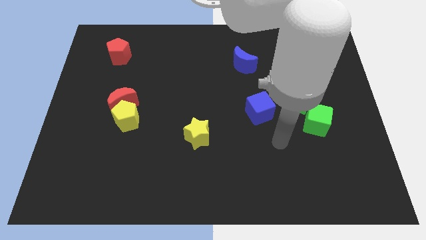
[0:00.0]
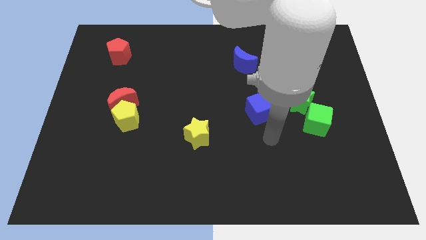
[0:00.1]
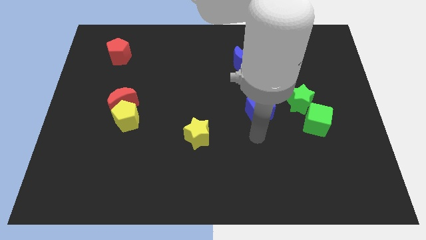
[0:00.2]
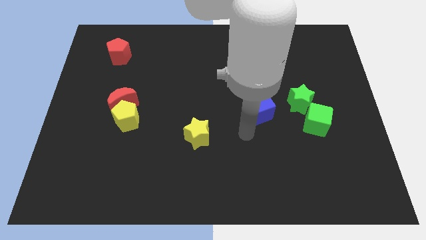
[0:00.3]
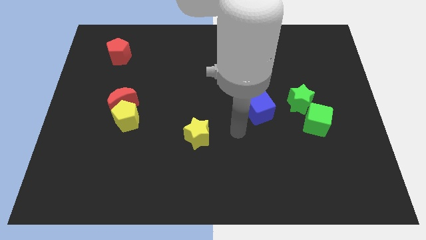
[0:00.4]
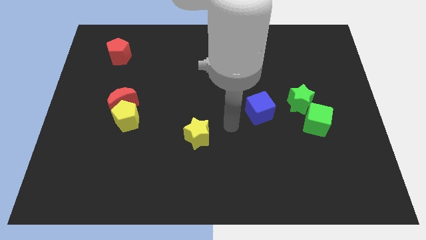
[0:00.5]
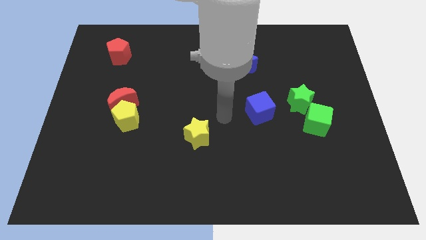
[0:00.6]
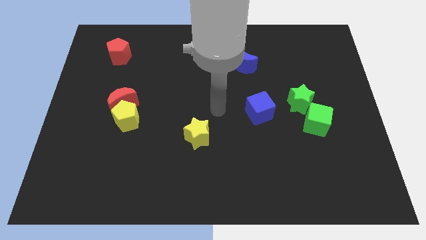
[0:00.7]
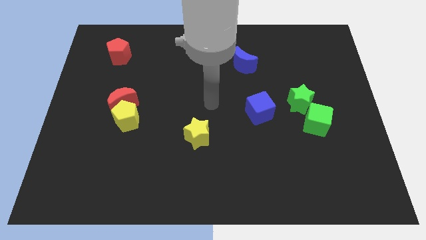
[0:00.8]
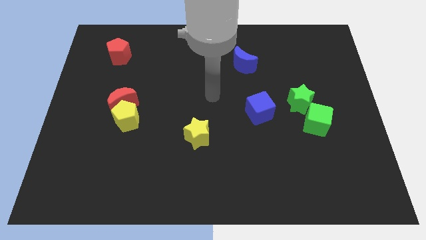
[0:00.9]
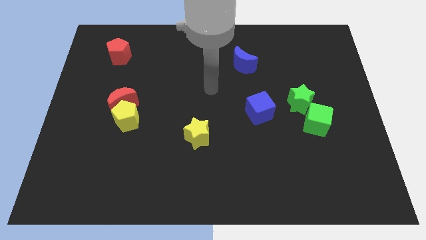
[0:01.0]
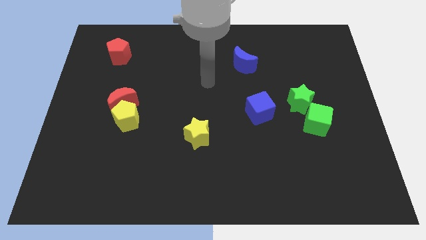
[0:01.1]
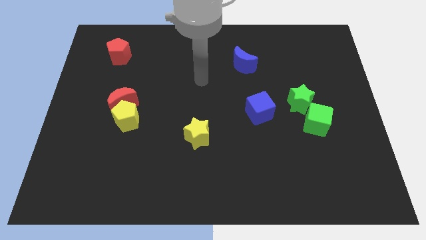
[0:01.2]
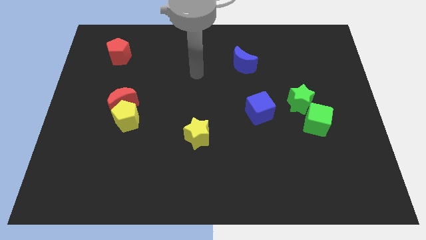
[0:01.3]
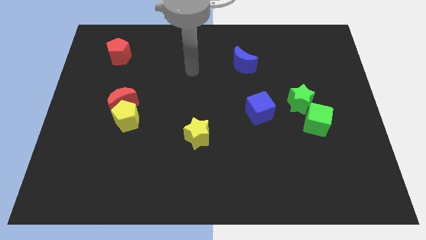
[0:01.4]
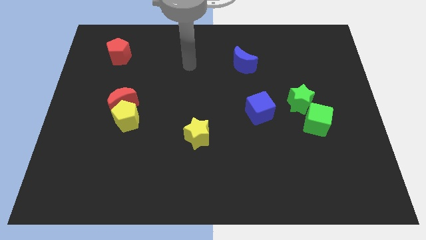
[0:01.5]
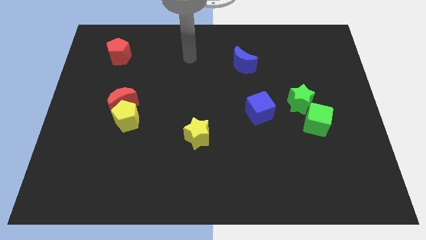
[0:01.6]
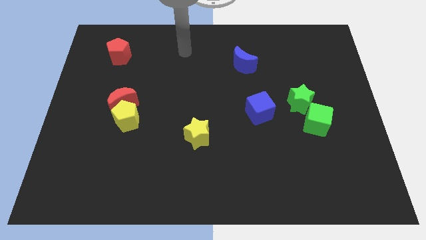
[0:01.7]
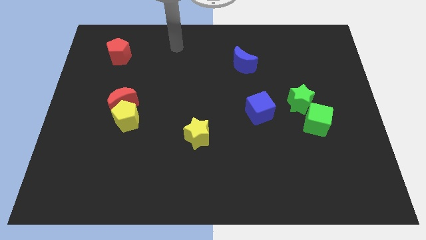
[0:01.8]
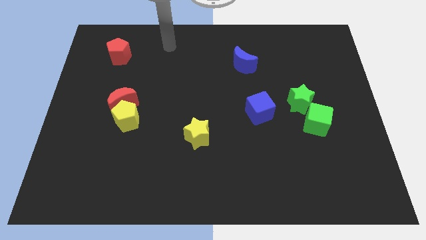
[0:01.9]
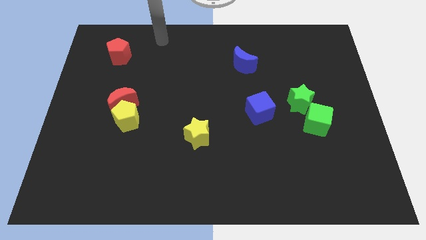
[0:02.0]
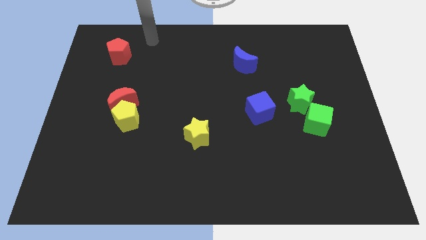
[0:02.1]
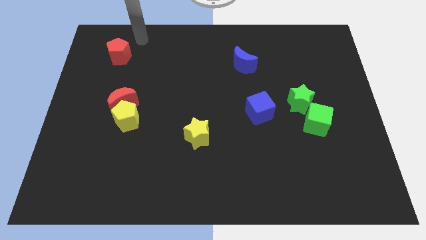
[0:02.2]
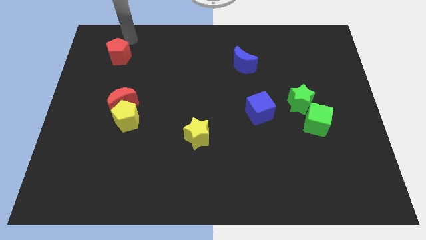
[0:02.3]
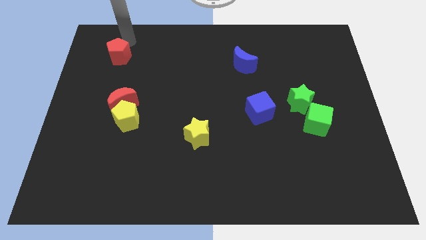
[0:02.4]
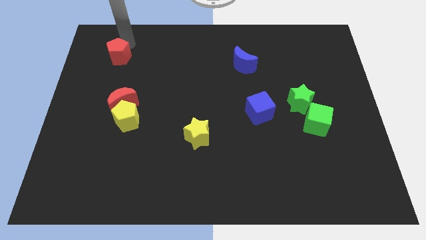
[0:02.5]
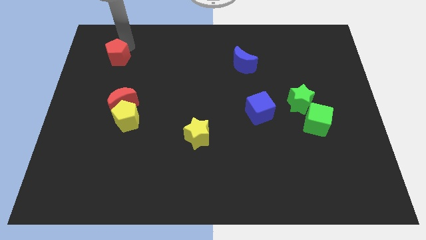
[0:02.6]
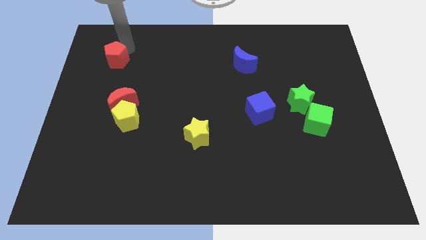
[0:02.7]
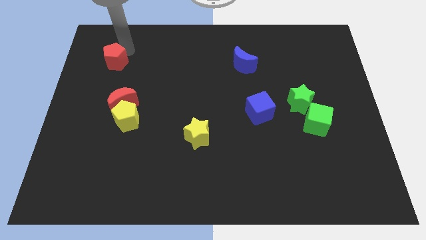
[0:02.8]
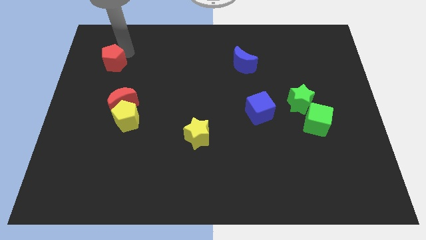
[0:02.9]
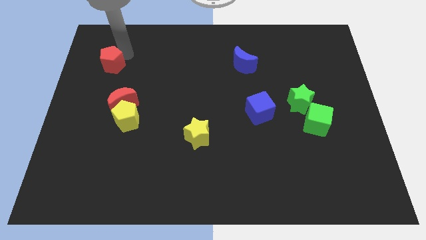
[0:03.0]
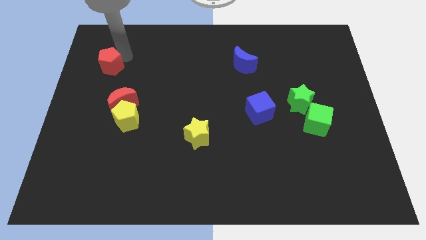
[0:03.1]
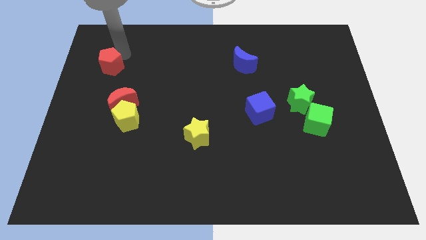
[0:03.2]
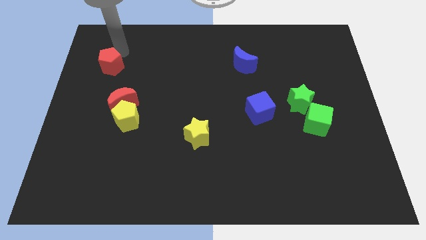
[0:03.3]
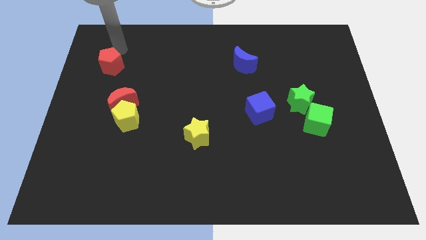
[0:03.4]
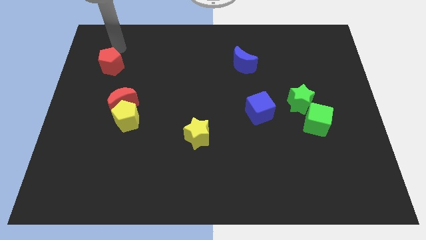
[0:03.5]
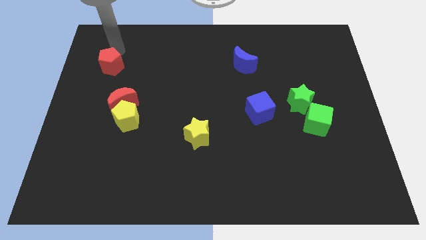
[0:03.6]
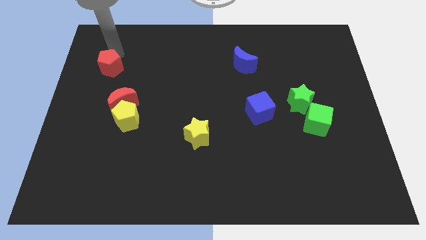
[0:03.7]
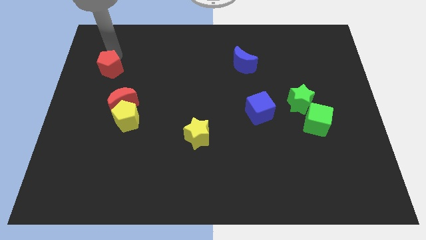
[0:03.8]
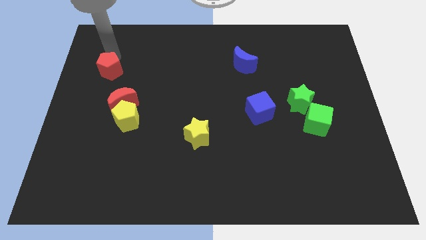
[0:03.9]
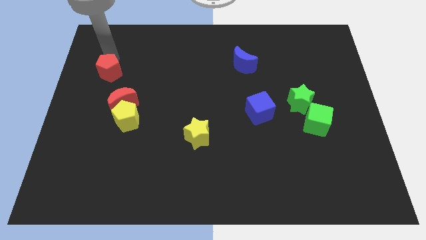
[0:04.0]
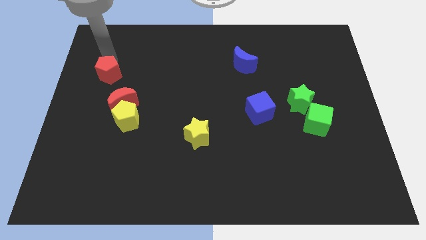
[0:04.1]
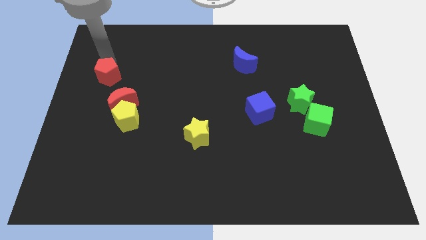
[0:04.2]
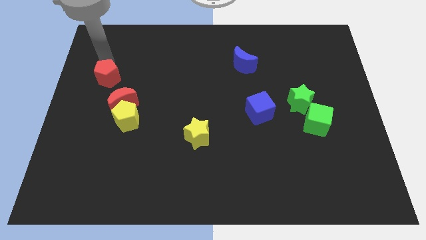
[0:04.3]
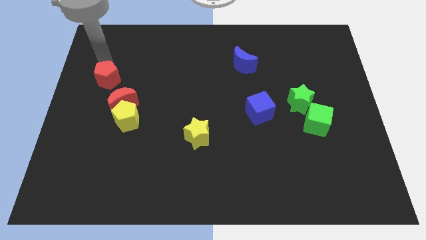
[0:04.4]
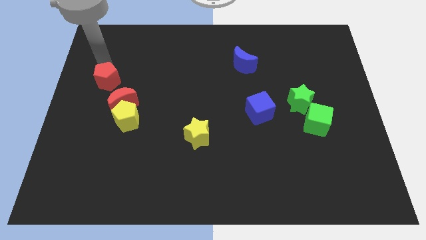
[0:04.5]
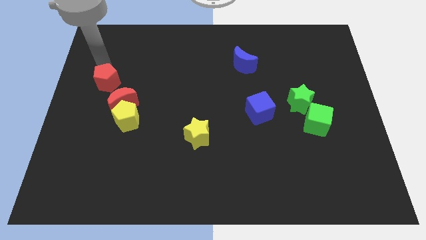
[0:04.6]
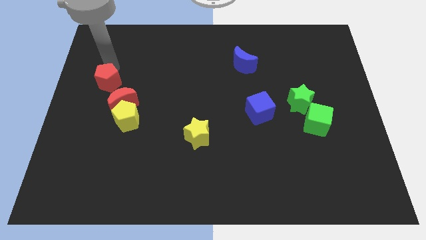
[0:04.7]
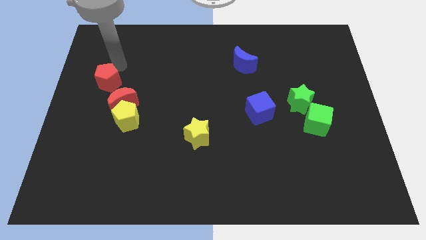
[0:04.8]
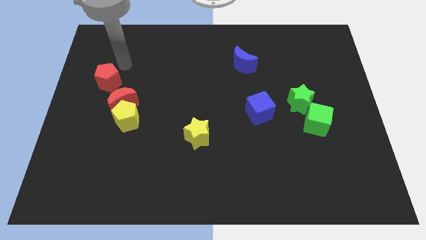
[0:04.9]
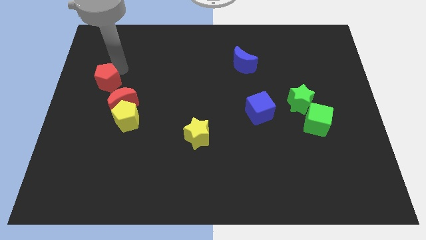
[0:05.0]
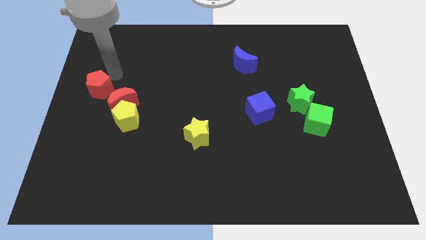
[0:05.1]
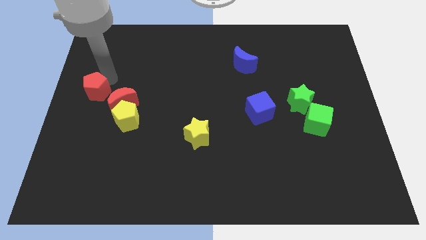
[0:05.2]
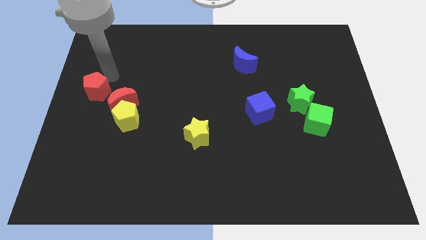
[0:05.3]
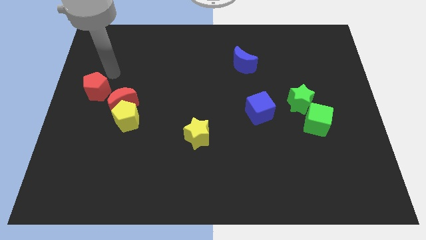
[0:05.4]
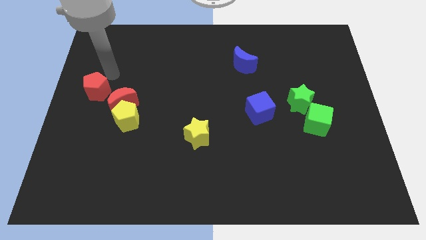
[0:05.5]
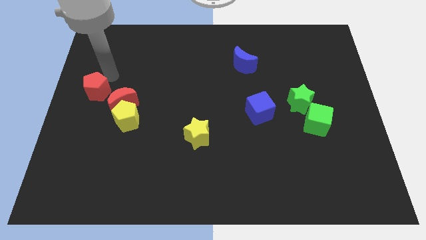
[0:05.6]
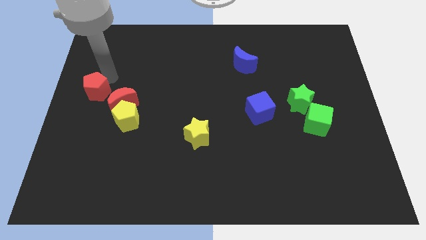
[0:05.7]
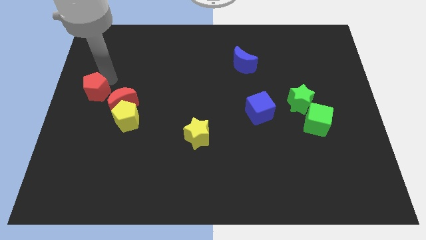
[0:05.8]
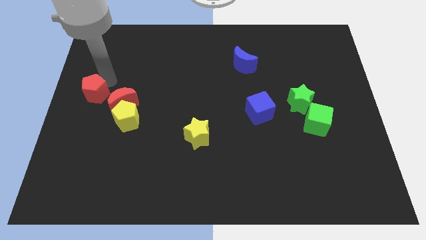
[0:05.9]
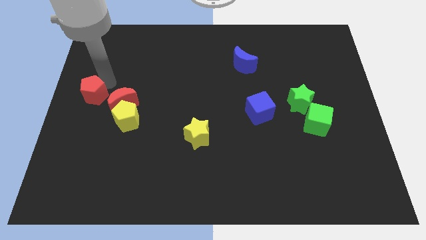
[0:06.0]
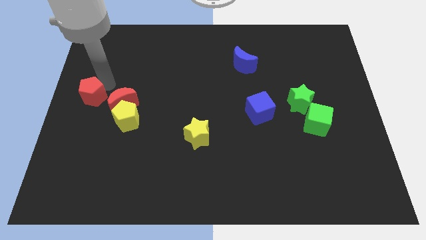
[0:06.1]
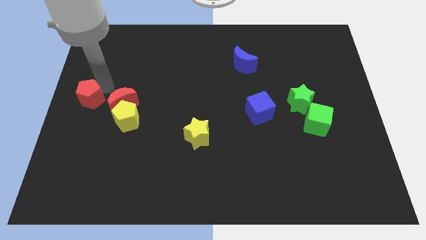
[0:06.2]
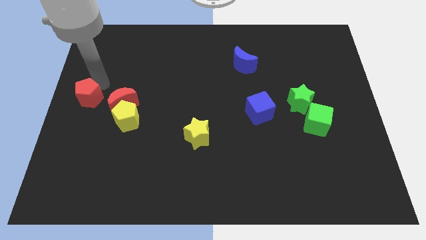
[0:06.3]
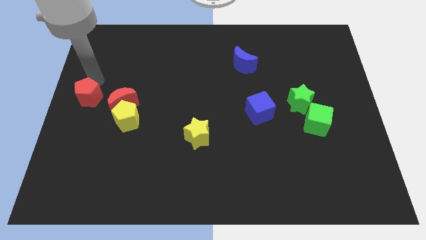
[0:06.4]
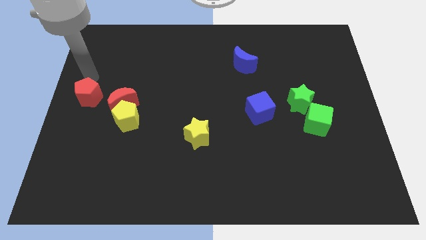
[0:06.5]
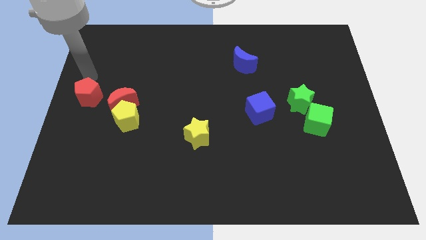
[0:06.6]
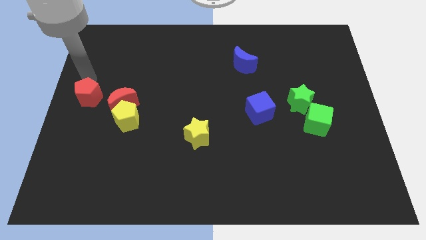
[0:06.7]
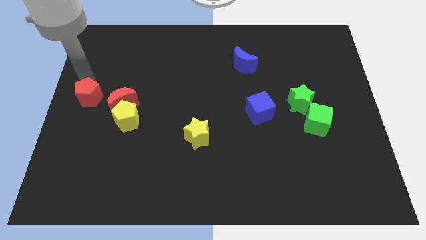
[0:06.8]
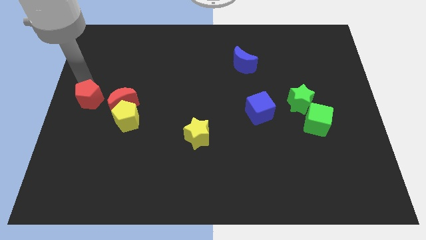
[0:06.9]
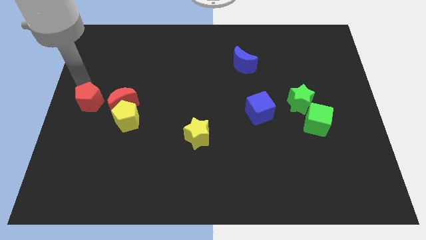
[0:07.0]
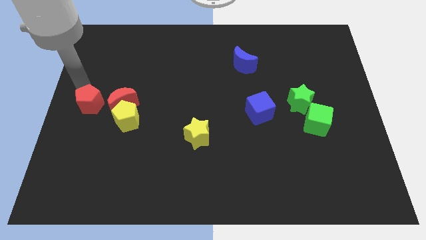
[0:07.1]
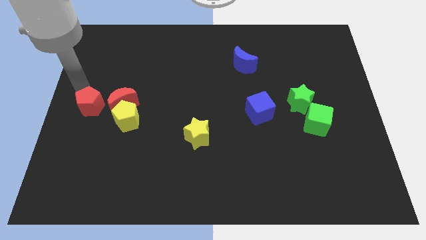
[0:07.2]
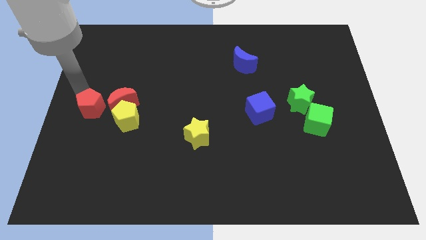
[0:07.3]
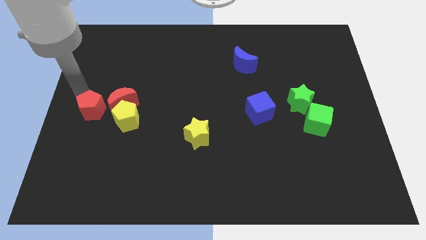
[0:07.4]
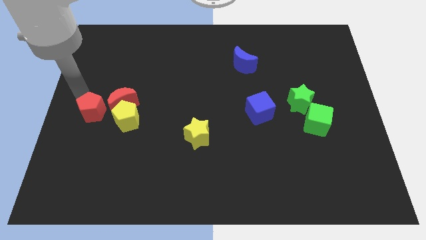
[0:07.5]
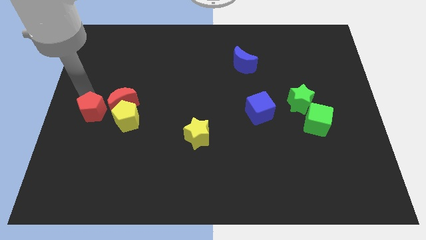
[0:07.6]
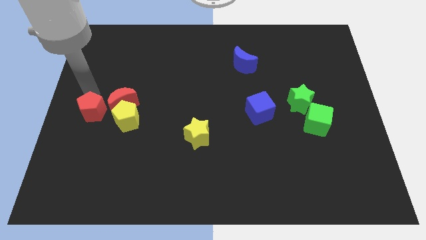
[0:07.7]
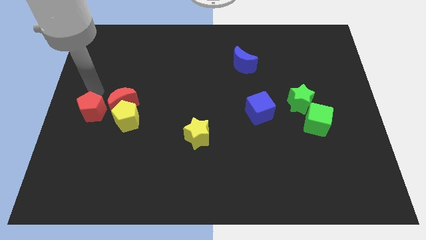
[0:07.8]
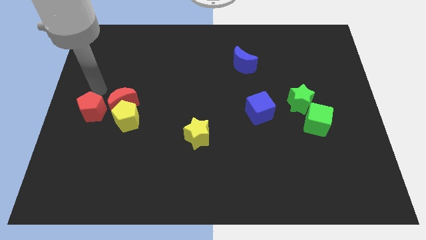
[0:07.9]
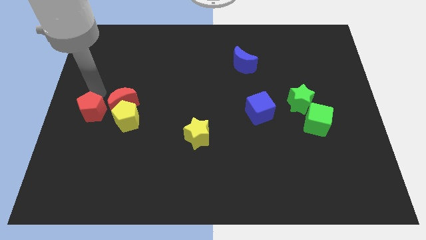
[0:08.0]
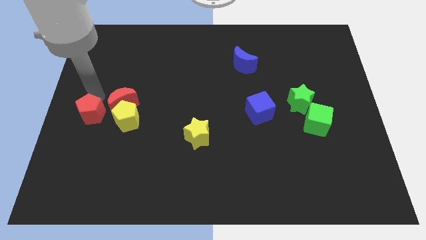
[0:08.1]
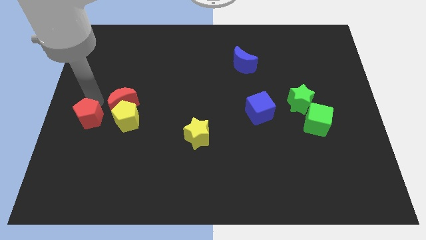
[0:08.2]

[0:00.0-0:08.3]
push the red pentagon down

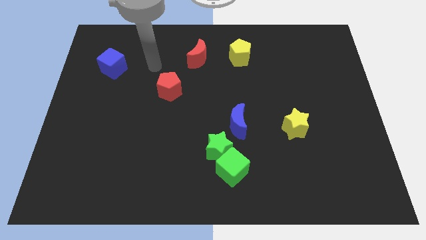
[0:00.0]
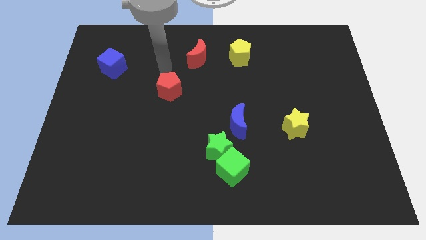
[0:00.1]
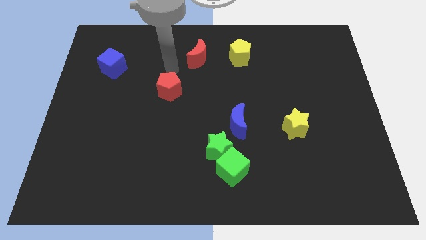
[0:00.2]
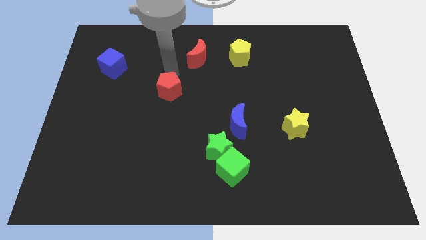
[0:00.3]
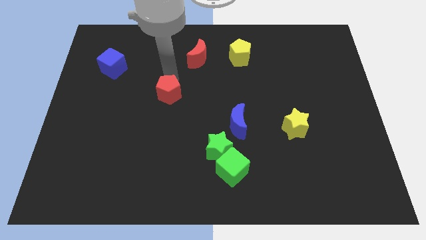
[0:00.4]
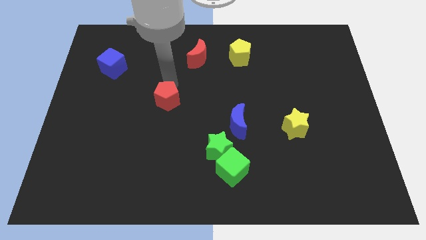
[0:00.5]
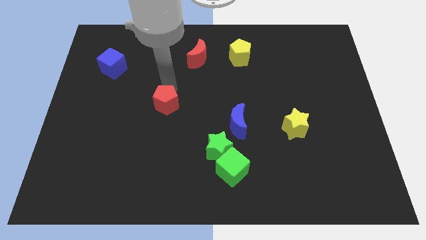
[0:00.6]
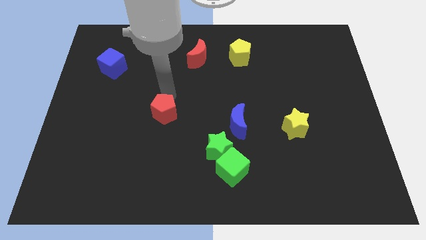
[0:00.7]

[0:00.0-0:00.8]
push the red pentagon down slightly
